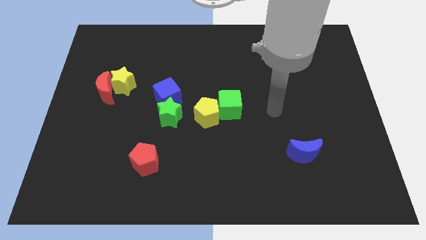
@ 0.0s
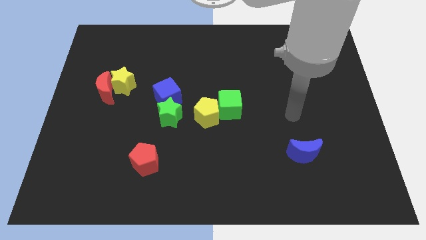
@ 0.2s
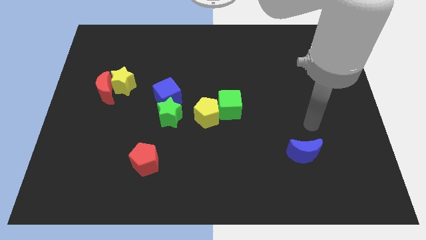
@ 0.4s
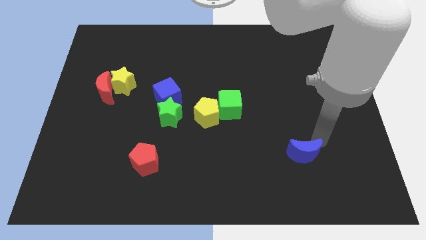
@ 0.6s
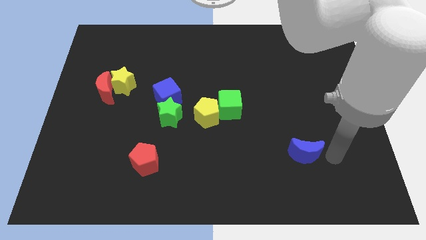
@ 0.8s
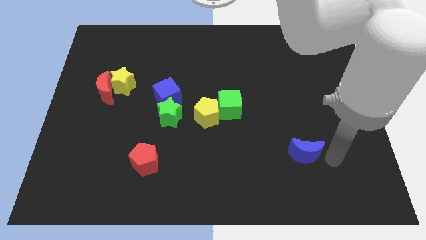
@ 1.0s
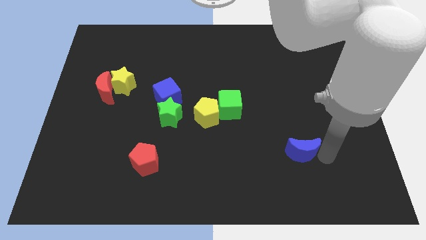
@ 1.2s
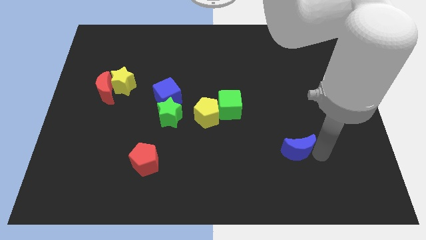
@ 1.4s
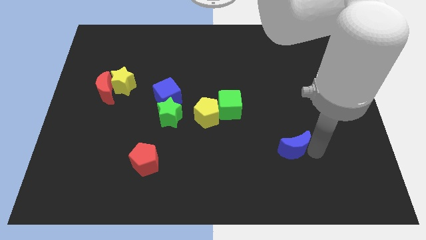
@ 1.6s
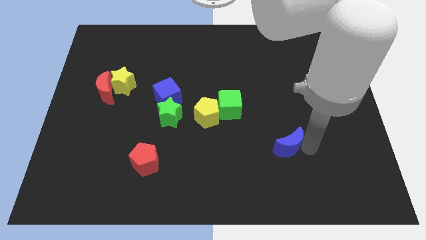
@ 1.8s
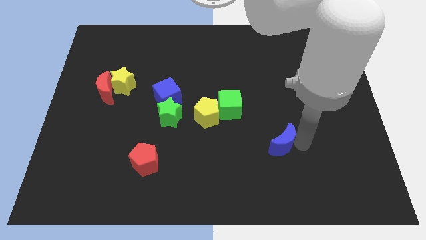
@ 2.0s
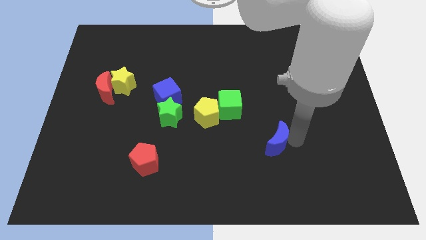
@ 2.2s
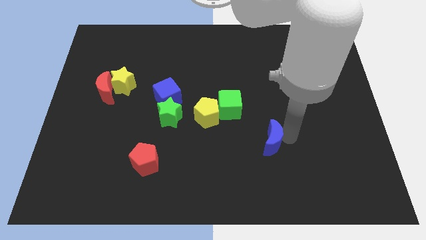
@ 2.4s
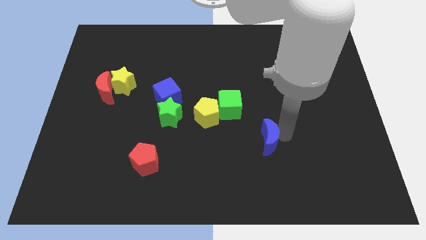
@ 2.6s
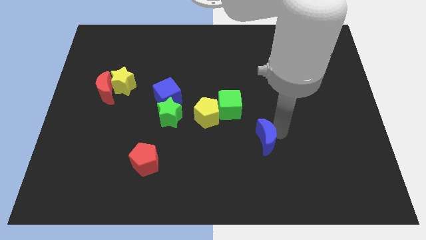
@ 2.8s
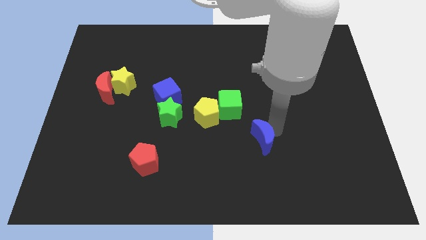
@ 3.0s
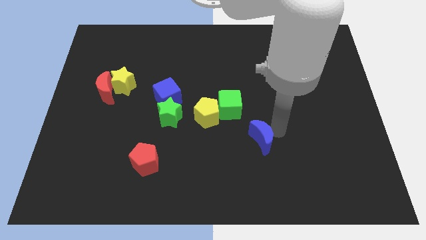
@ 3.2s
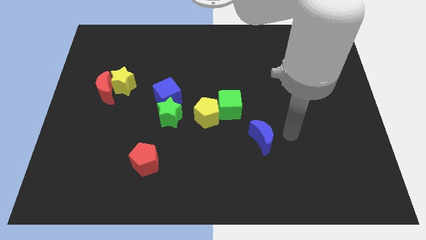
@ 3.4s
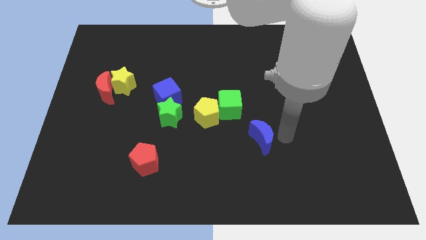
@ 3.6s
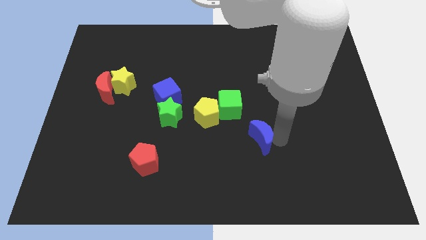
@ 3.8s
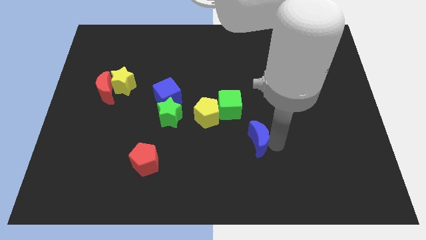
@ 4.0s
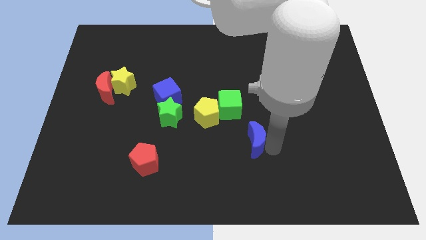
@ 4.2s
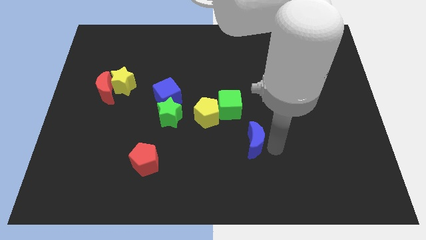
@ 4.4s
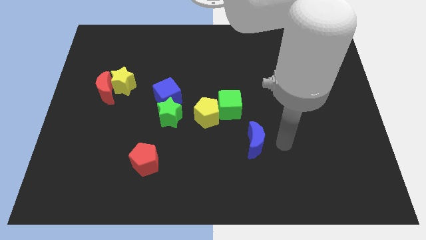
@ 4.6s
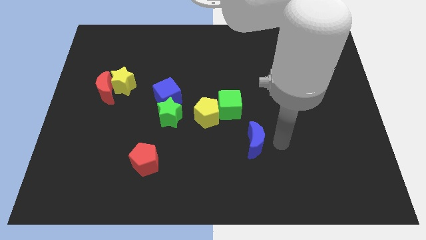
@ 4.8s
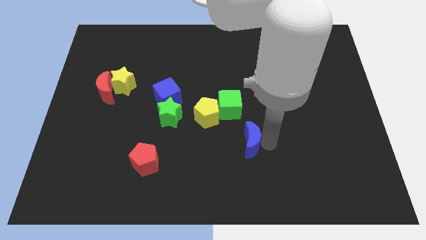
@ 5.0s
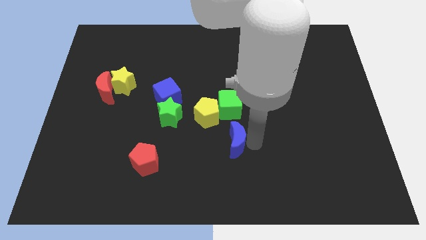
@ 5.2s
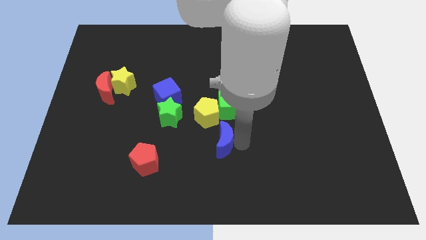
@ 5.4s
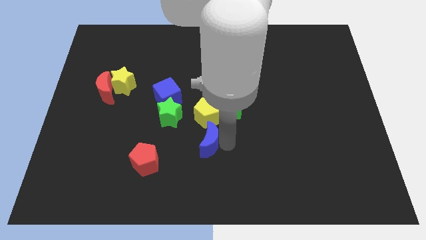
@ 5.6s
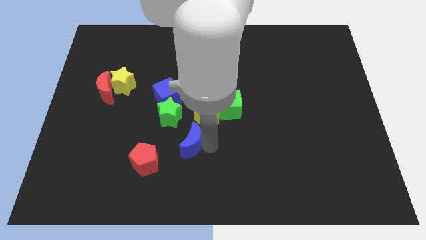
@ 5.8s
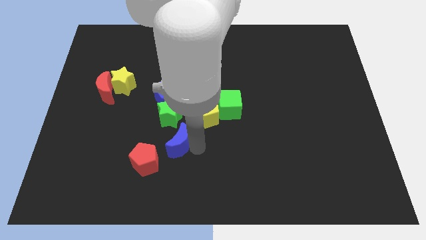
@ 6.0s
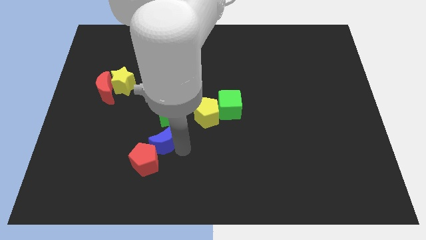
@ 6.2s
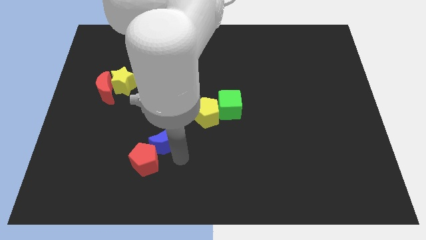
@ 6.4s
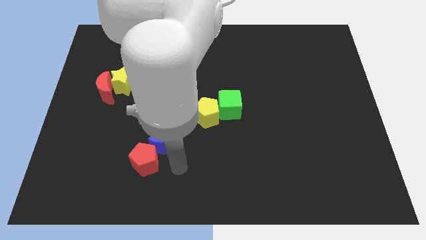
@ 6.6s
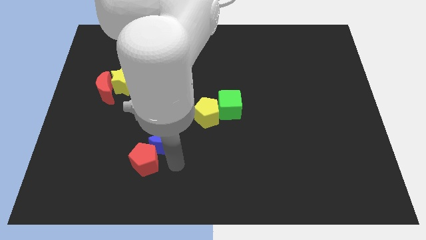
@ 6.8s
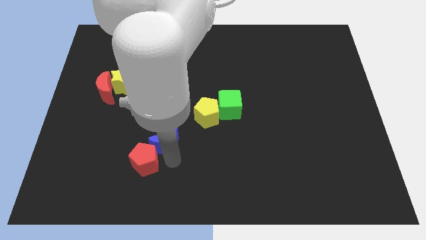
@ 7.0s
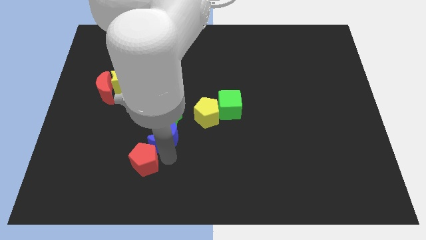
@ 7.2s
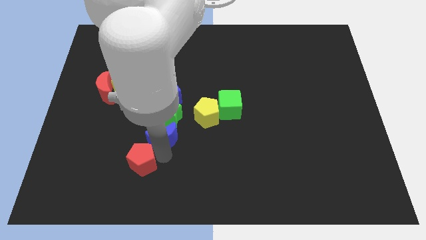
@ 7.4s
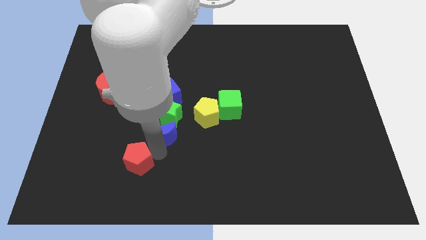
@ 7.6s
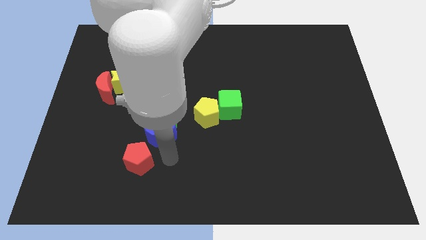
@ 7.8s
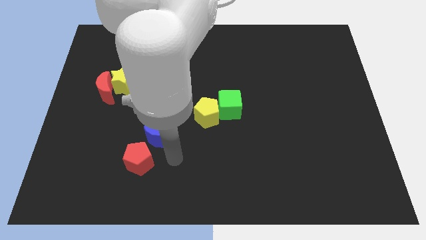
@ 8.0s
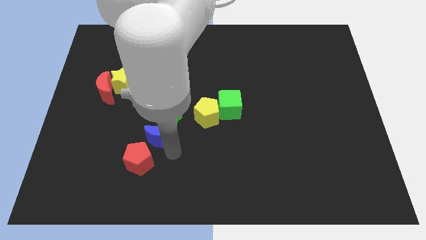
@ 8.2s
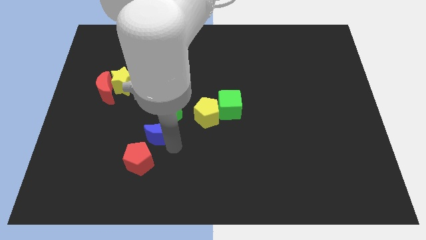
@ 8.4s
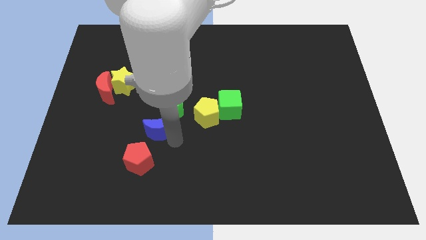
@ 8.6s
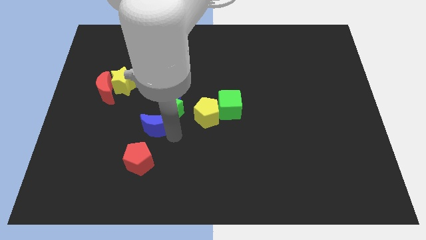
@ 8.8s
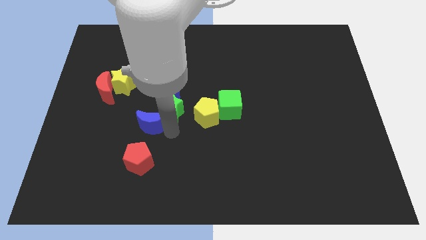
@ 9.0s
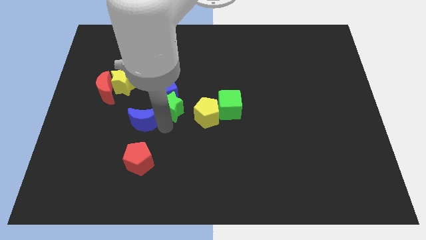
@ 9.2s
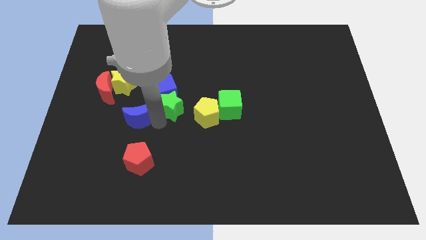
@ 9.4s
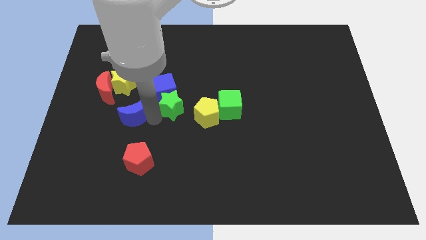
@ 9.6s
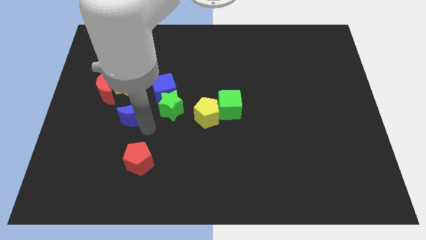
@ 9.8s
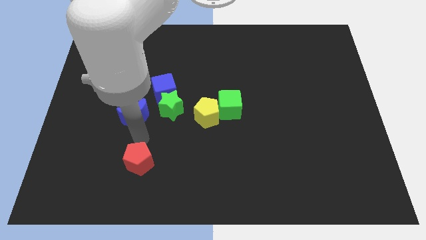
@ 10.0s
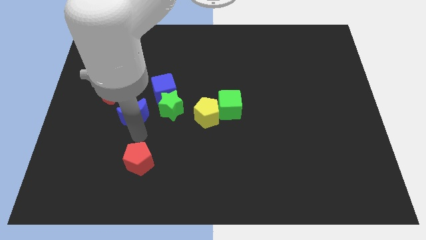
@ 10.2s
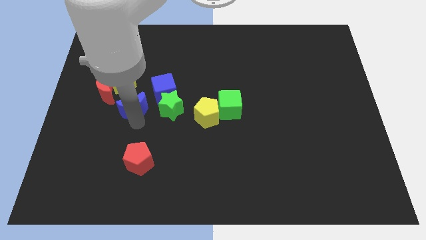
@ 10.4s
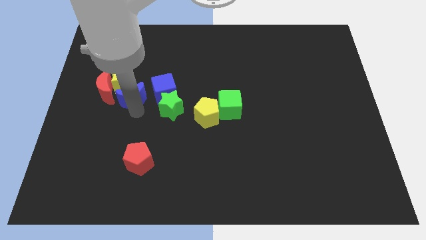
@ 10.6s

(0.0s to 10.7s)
slide the blue moon close to the yellow star

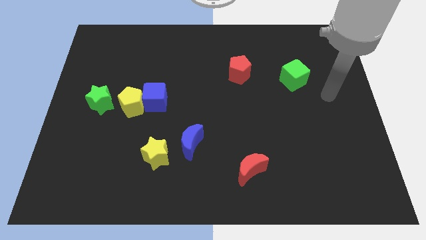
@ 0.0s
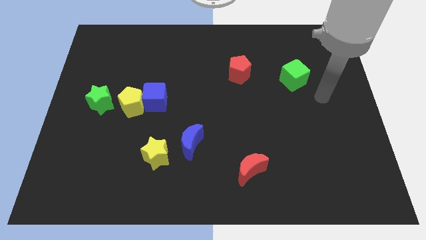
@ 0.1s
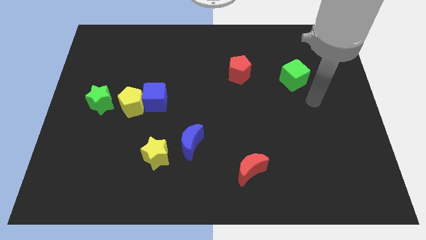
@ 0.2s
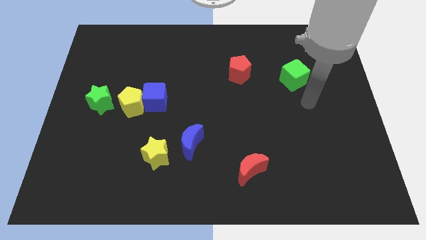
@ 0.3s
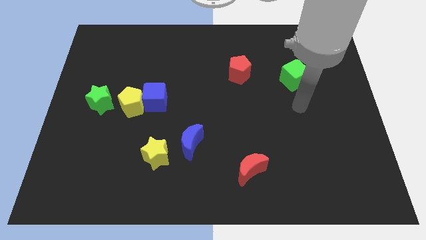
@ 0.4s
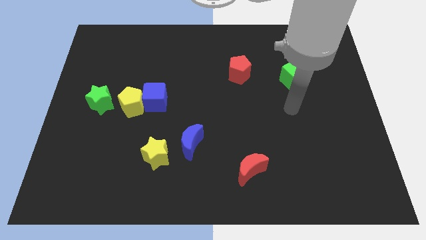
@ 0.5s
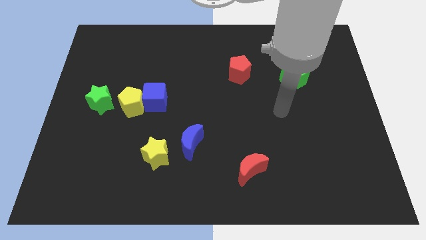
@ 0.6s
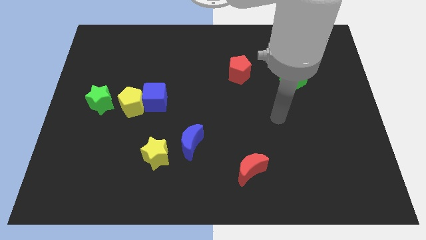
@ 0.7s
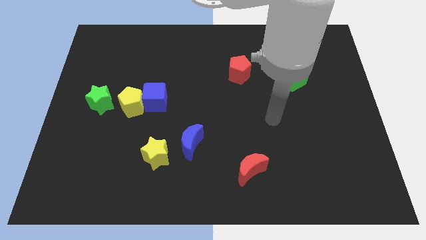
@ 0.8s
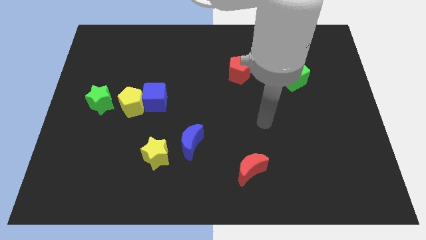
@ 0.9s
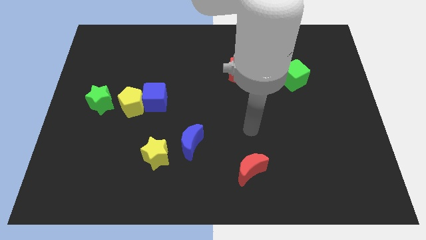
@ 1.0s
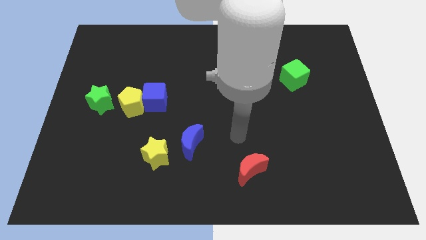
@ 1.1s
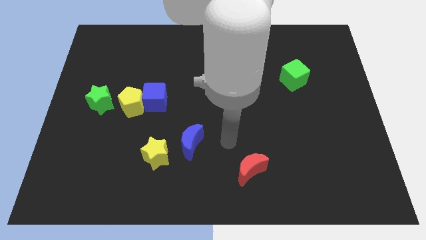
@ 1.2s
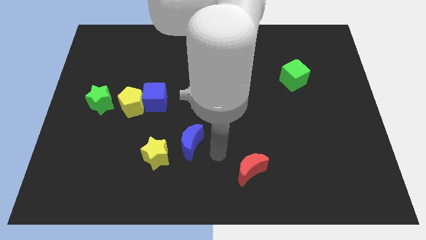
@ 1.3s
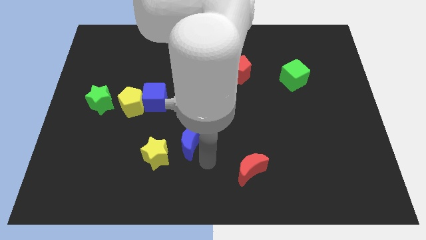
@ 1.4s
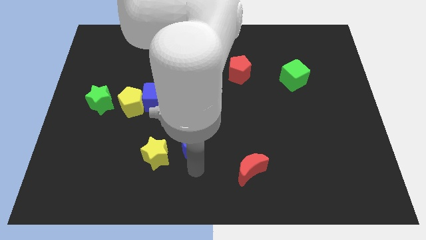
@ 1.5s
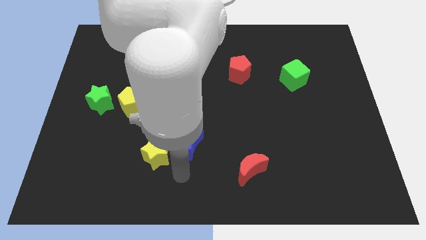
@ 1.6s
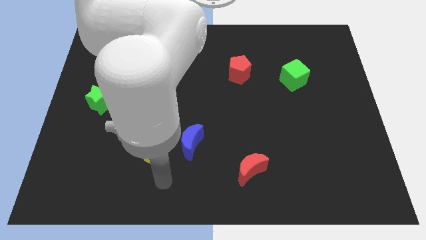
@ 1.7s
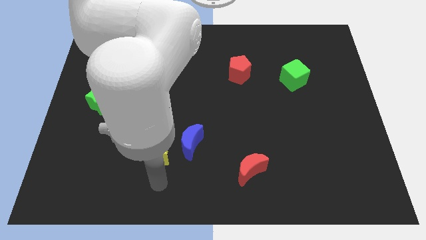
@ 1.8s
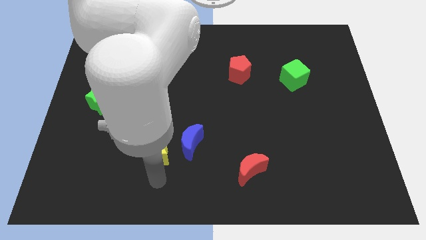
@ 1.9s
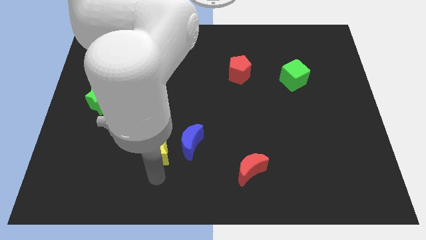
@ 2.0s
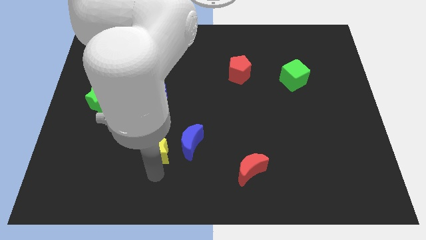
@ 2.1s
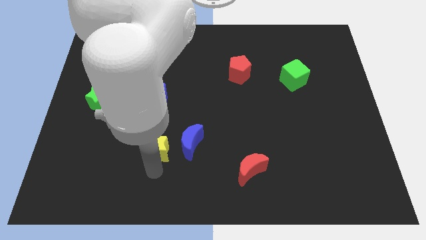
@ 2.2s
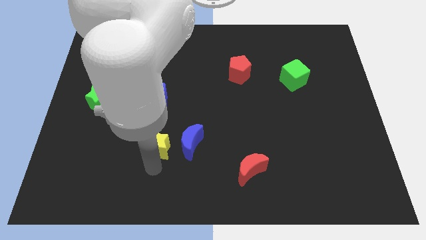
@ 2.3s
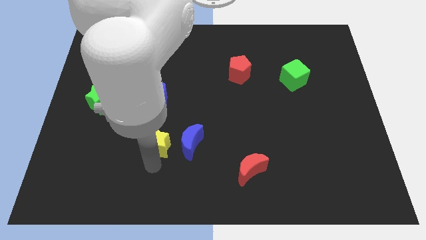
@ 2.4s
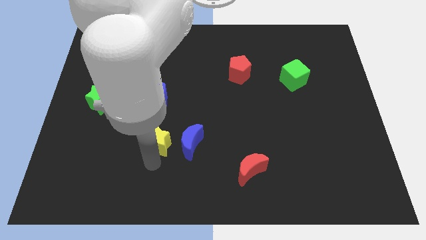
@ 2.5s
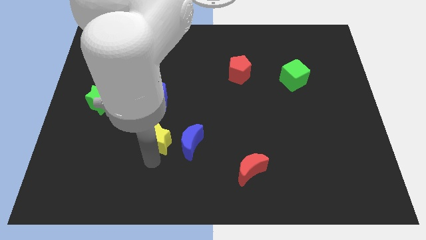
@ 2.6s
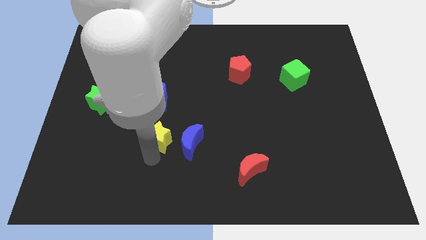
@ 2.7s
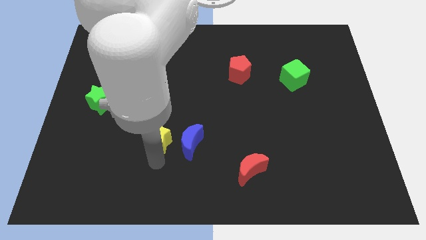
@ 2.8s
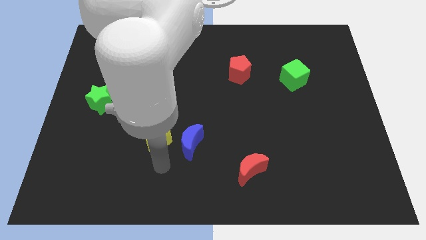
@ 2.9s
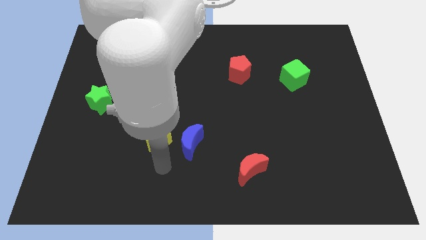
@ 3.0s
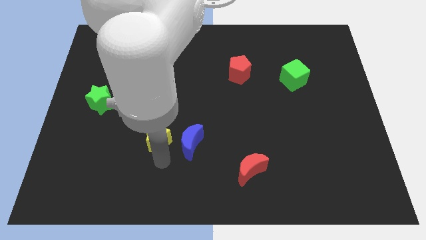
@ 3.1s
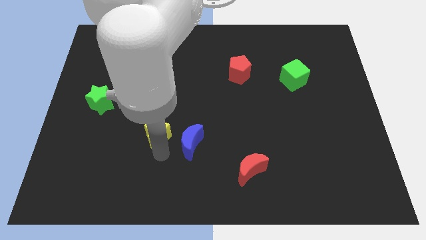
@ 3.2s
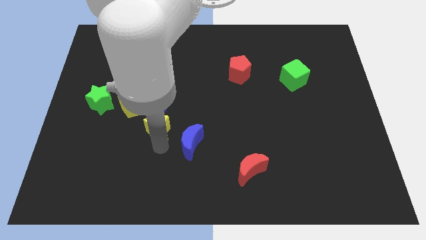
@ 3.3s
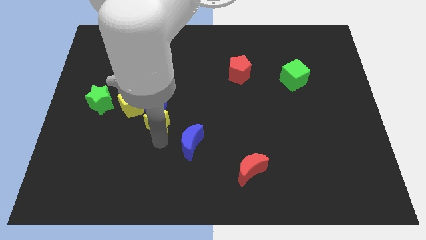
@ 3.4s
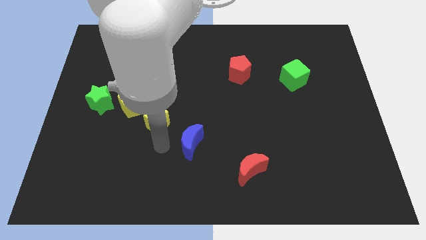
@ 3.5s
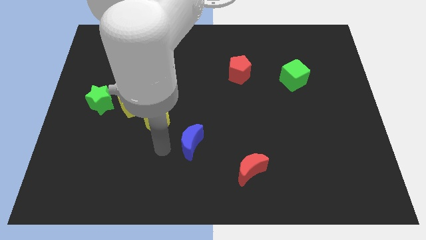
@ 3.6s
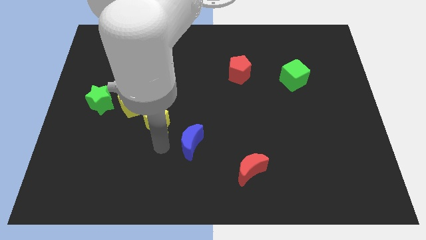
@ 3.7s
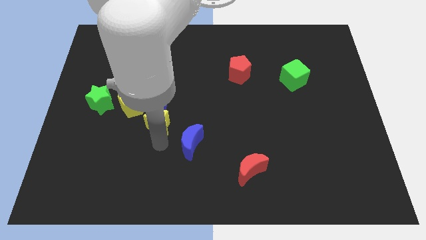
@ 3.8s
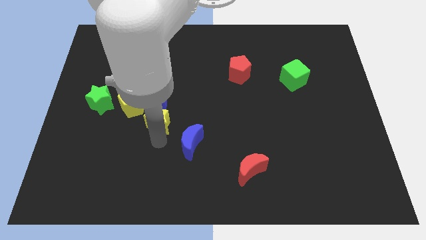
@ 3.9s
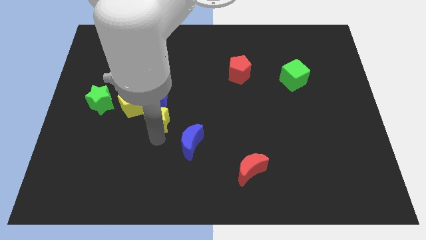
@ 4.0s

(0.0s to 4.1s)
move the yellow star towards the blue cube
